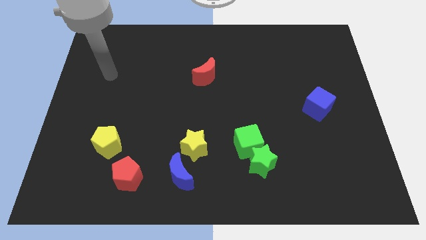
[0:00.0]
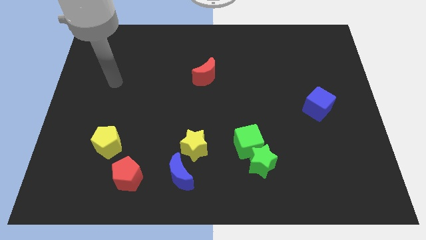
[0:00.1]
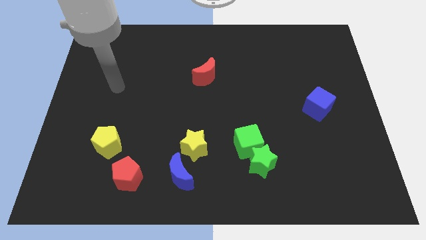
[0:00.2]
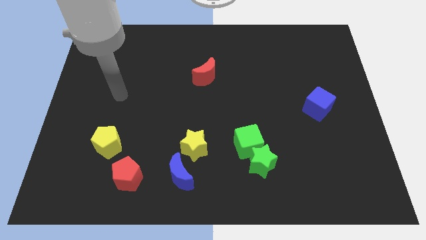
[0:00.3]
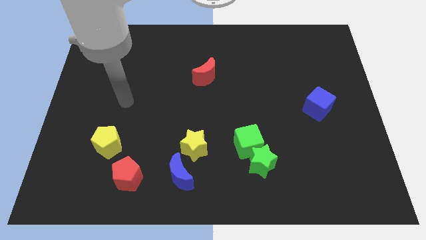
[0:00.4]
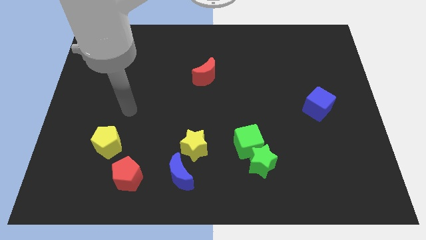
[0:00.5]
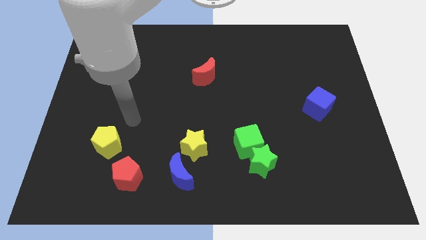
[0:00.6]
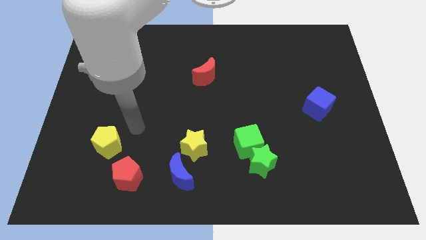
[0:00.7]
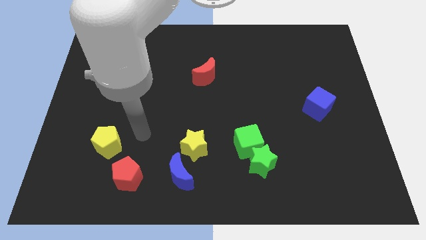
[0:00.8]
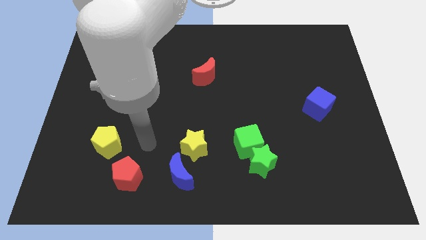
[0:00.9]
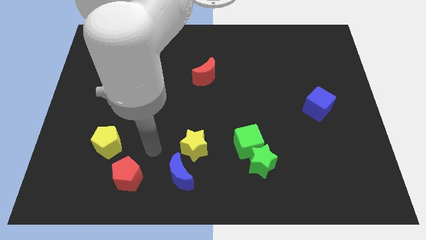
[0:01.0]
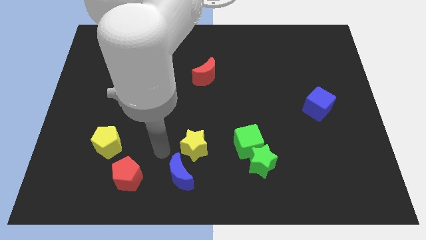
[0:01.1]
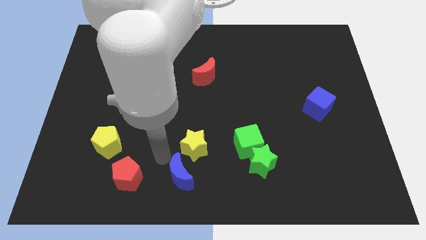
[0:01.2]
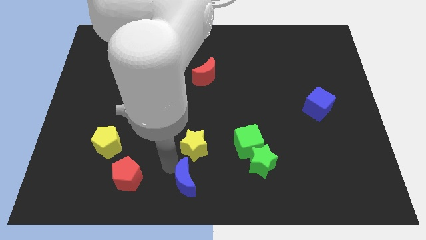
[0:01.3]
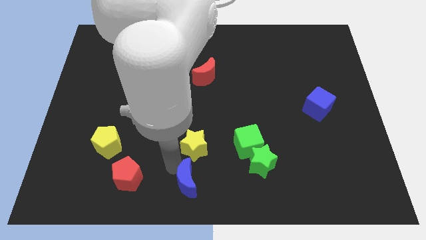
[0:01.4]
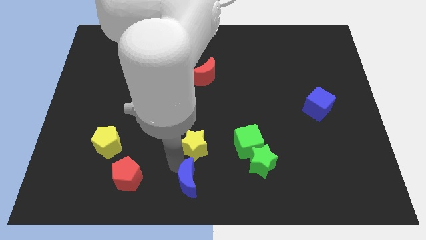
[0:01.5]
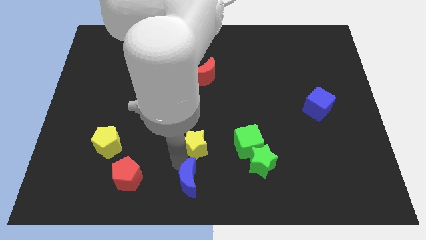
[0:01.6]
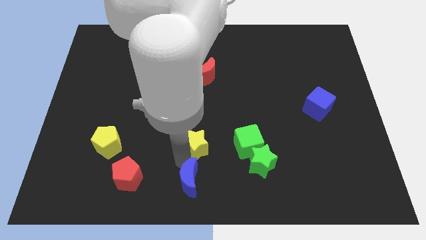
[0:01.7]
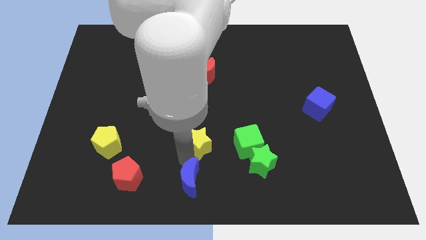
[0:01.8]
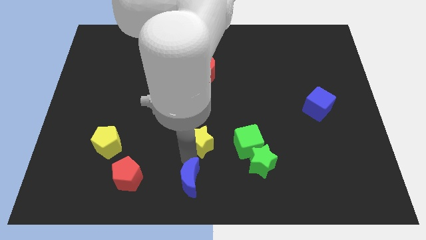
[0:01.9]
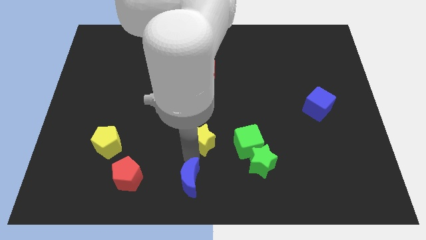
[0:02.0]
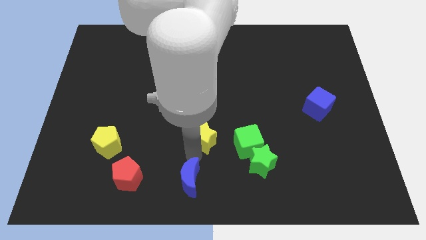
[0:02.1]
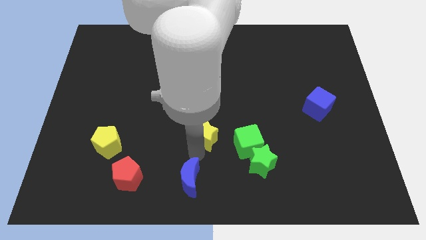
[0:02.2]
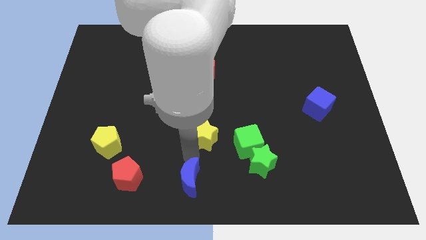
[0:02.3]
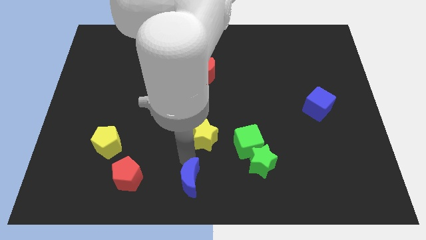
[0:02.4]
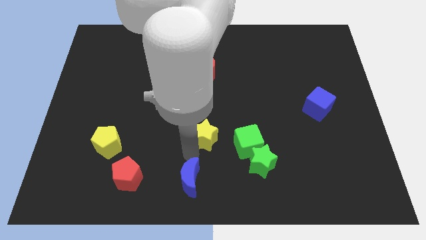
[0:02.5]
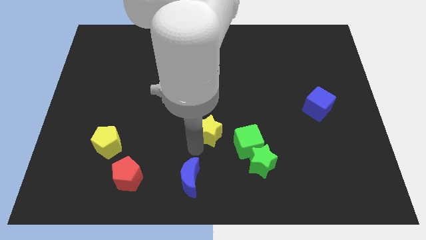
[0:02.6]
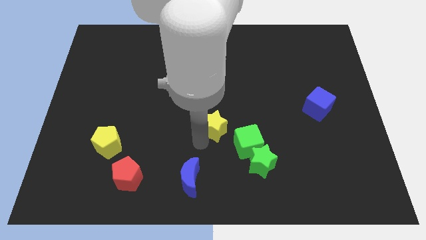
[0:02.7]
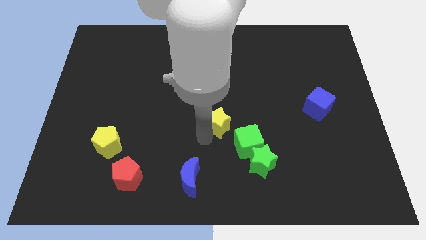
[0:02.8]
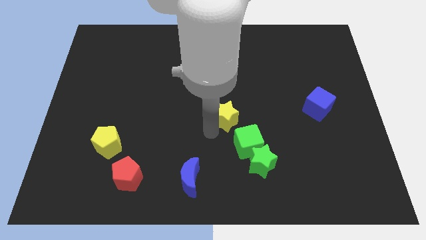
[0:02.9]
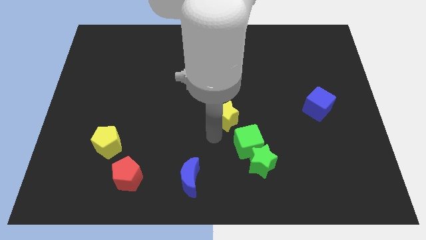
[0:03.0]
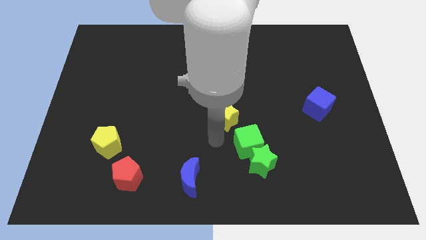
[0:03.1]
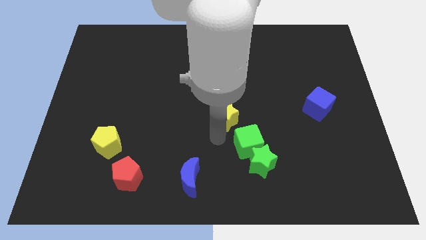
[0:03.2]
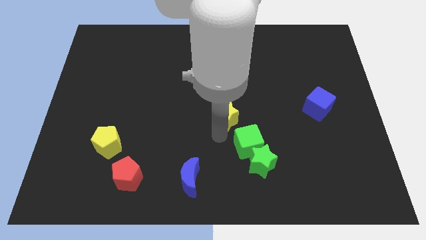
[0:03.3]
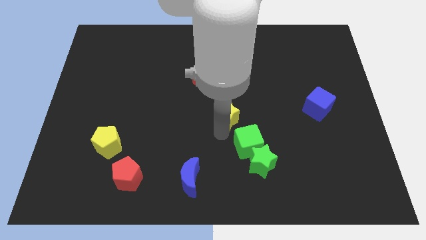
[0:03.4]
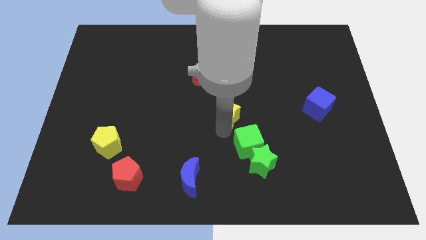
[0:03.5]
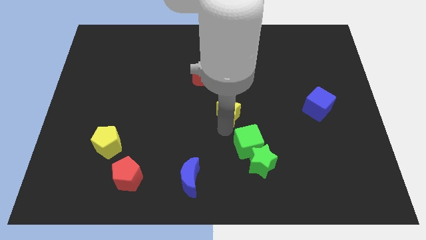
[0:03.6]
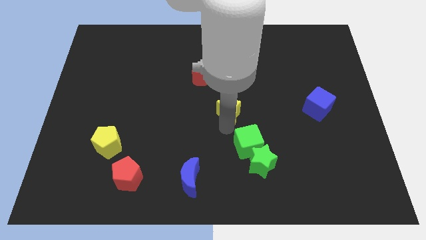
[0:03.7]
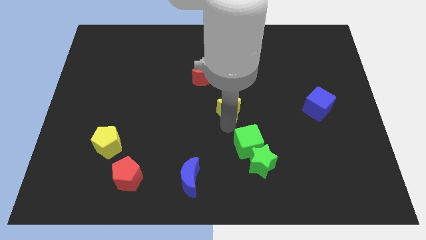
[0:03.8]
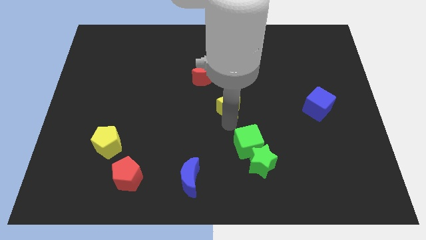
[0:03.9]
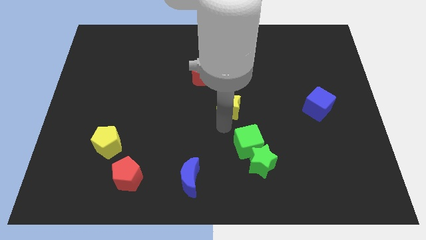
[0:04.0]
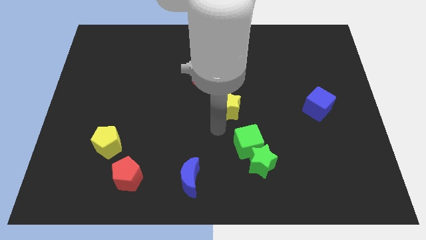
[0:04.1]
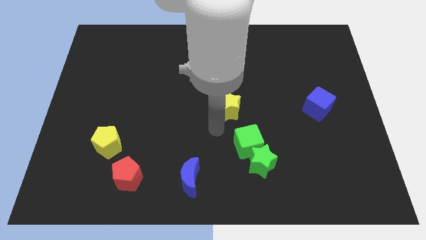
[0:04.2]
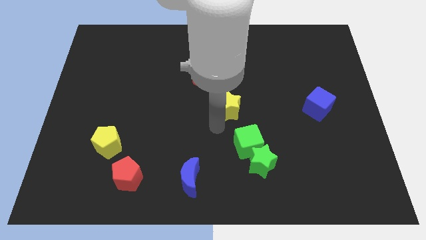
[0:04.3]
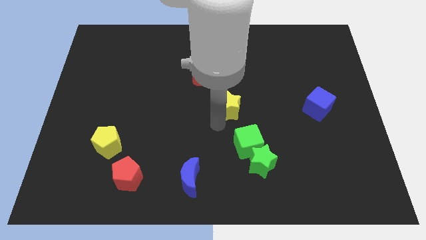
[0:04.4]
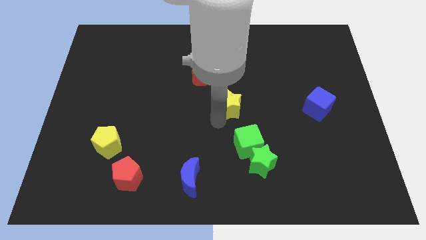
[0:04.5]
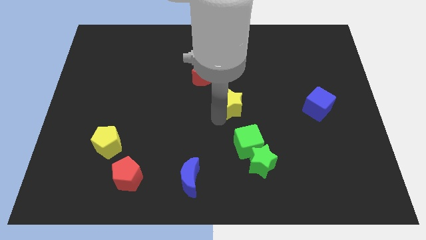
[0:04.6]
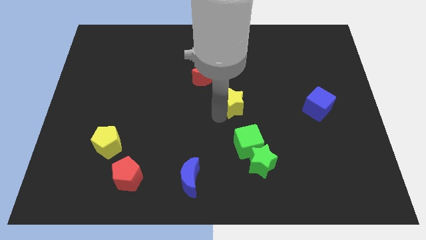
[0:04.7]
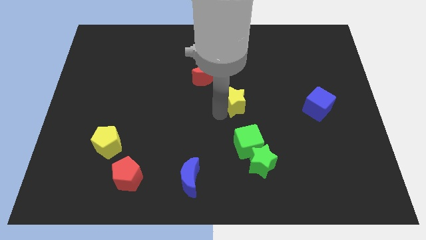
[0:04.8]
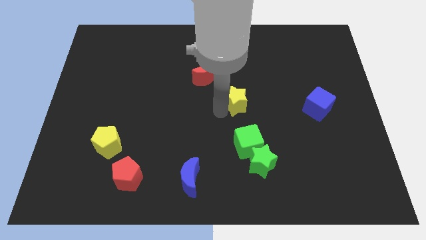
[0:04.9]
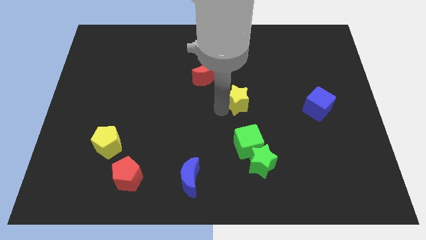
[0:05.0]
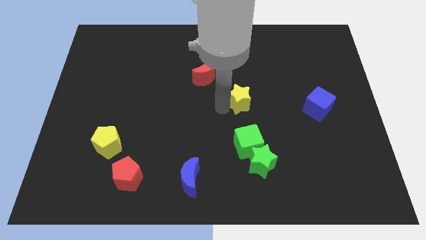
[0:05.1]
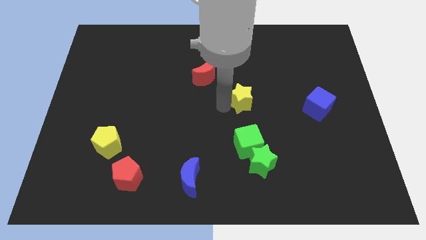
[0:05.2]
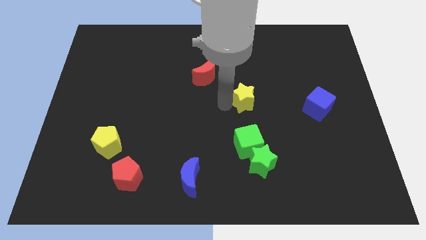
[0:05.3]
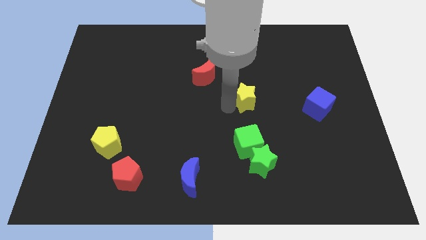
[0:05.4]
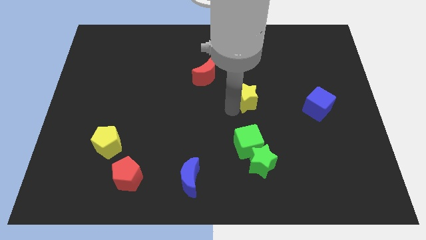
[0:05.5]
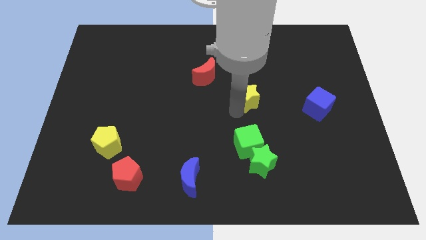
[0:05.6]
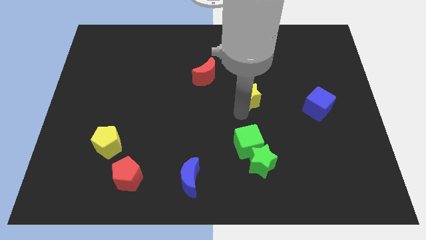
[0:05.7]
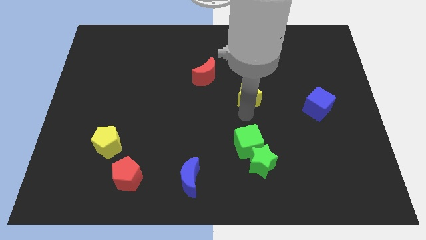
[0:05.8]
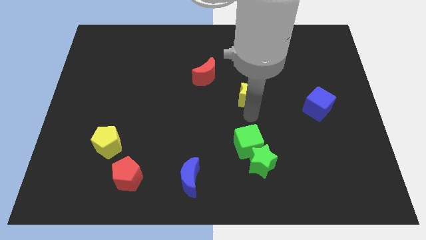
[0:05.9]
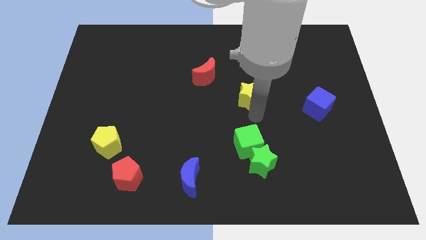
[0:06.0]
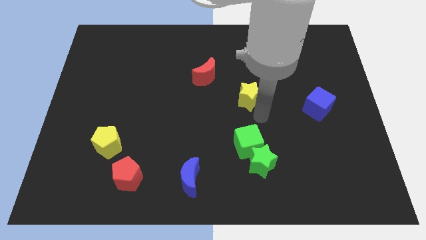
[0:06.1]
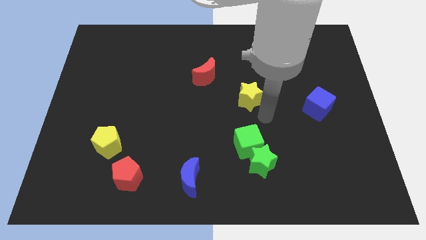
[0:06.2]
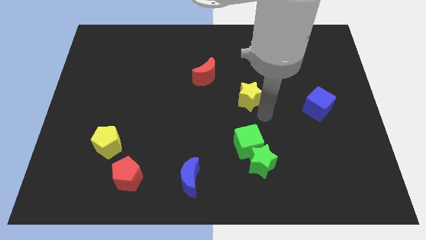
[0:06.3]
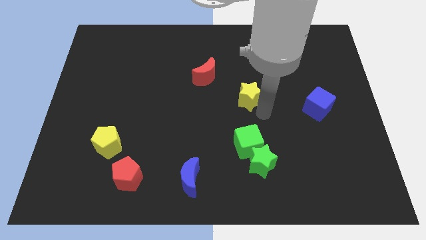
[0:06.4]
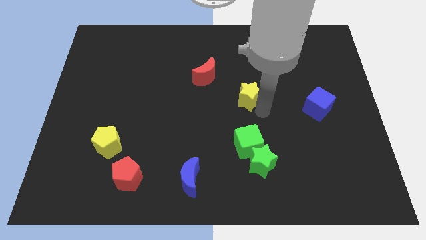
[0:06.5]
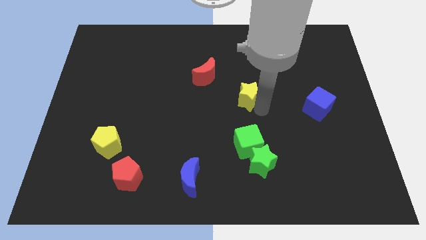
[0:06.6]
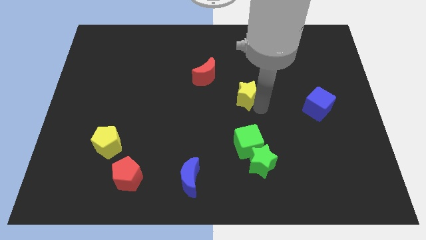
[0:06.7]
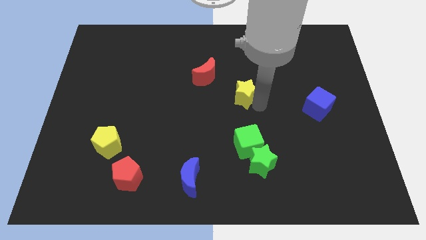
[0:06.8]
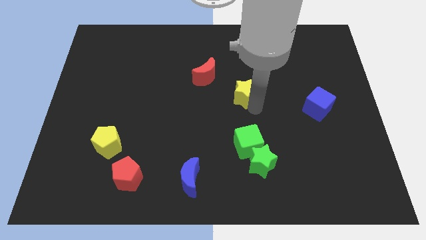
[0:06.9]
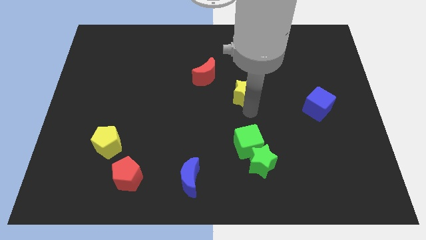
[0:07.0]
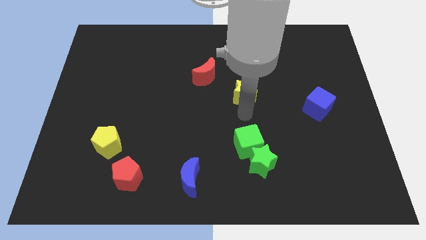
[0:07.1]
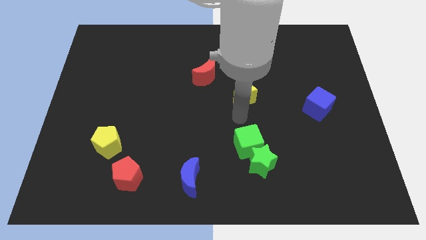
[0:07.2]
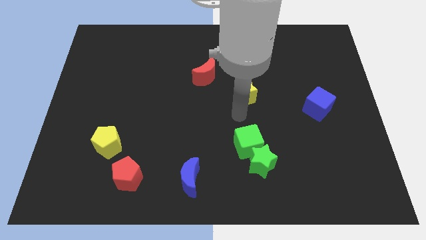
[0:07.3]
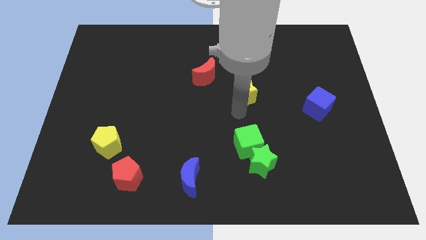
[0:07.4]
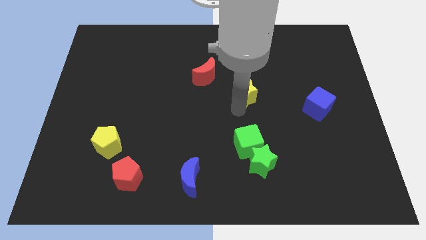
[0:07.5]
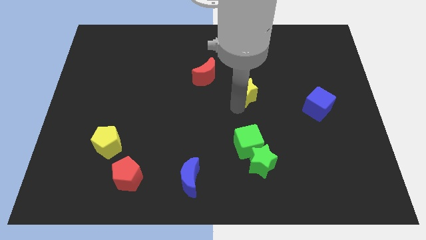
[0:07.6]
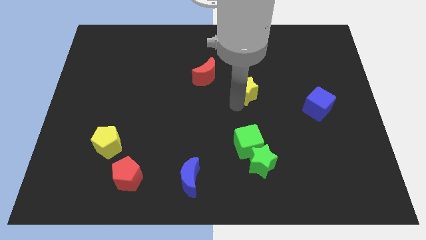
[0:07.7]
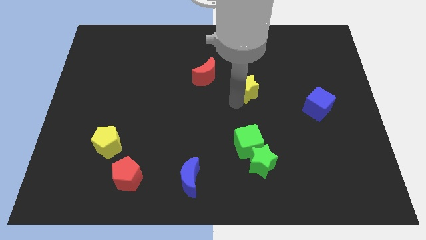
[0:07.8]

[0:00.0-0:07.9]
put the yellow star to the right side of the red moon
